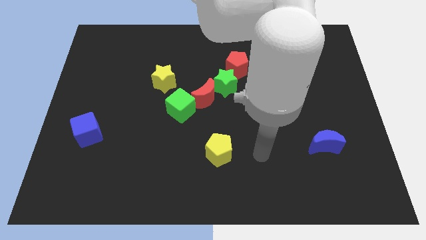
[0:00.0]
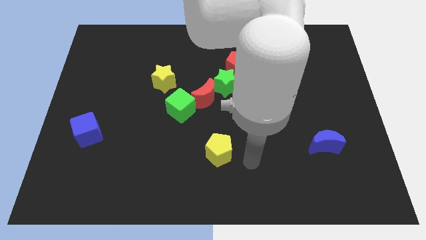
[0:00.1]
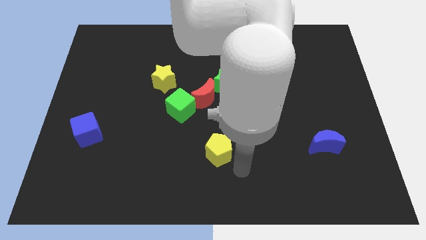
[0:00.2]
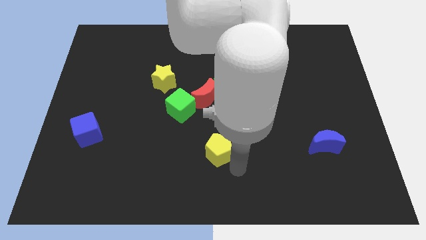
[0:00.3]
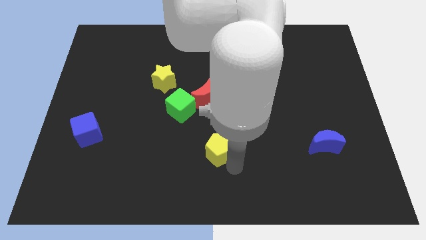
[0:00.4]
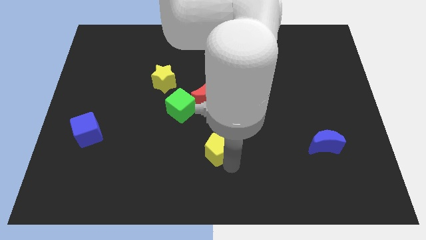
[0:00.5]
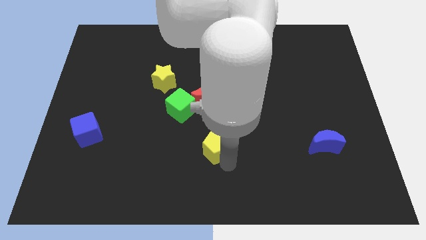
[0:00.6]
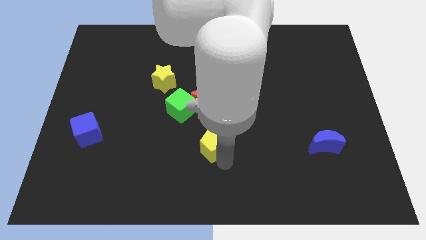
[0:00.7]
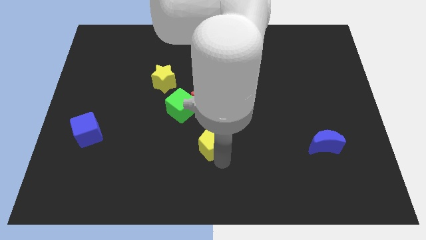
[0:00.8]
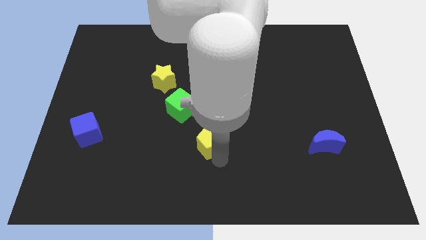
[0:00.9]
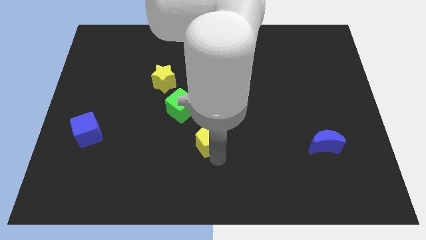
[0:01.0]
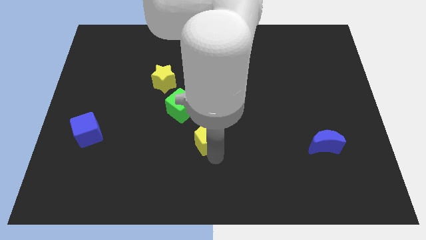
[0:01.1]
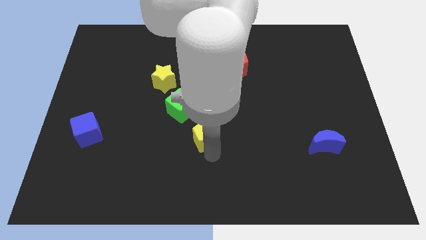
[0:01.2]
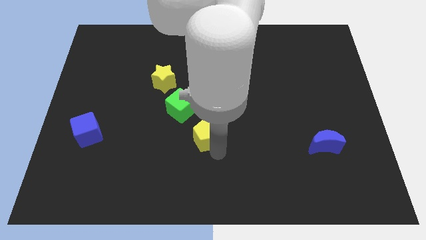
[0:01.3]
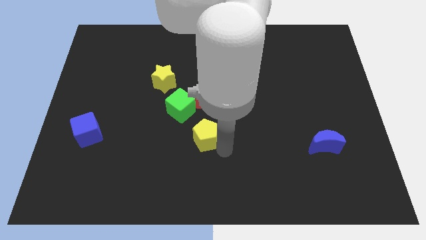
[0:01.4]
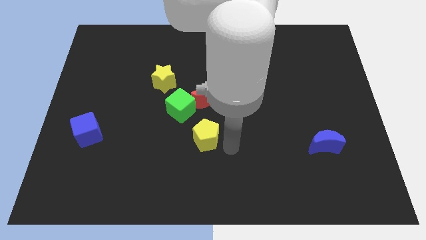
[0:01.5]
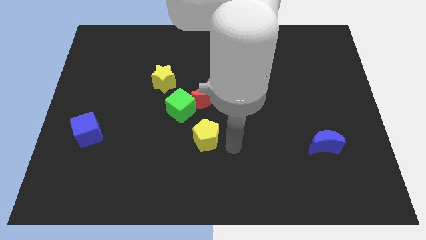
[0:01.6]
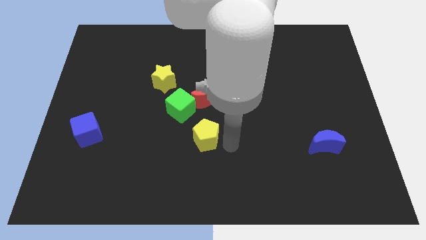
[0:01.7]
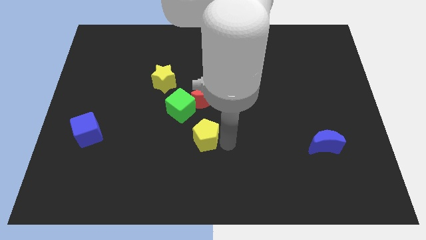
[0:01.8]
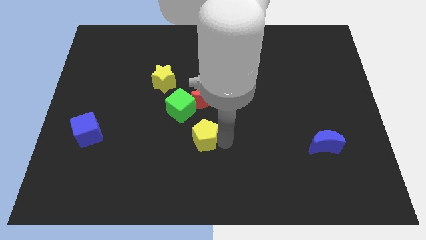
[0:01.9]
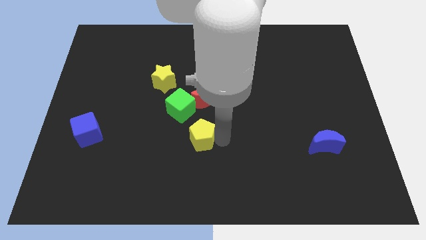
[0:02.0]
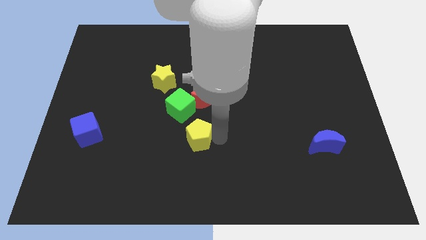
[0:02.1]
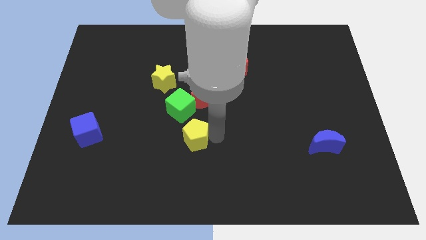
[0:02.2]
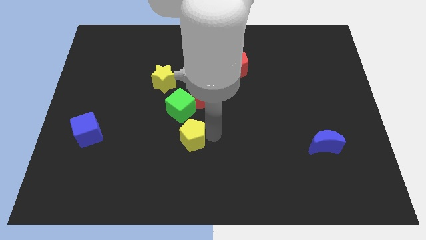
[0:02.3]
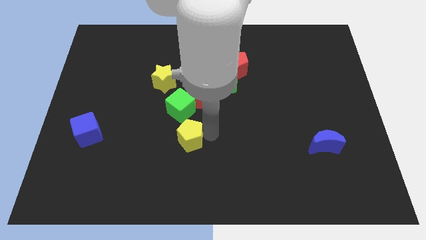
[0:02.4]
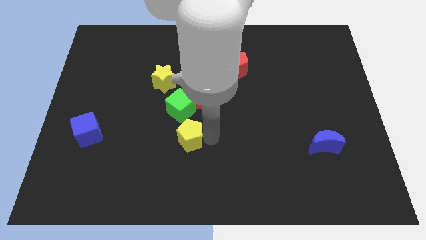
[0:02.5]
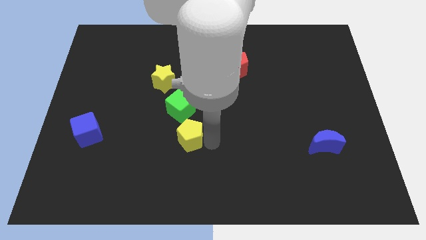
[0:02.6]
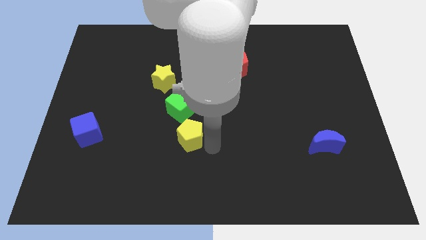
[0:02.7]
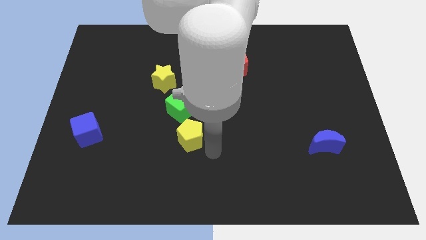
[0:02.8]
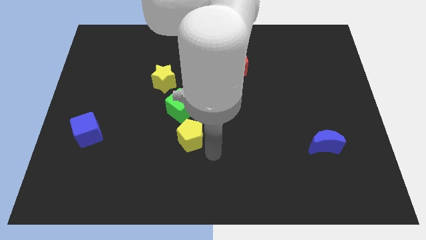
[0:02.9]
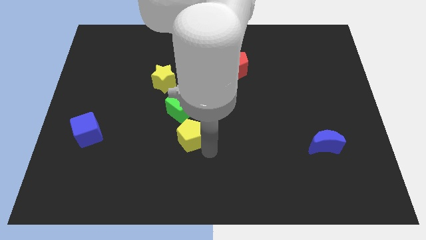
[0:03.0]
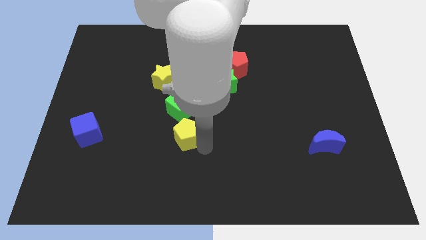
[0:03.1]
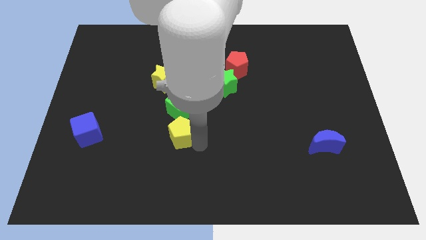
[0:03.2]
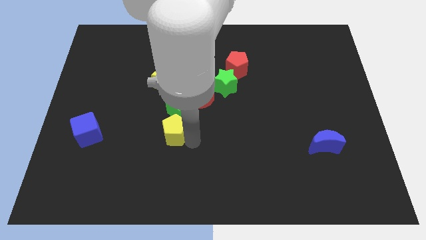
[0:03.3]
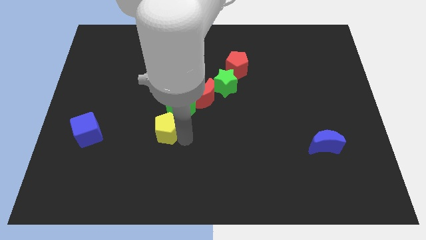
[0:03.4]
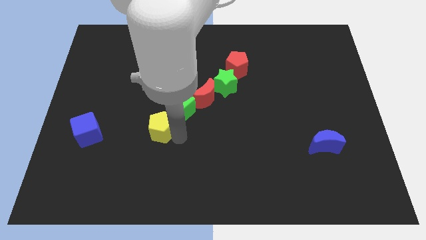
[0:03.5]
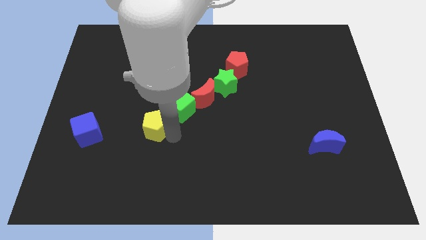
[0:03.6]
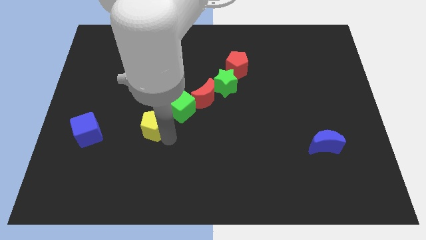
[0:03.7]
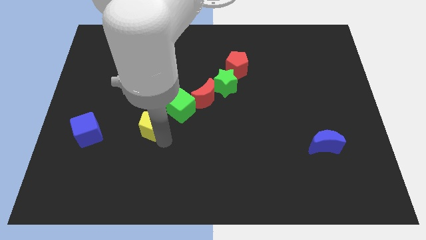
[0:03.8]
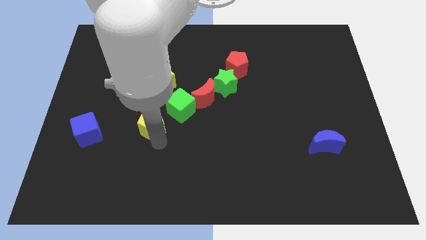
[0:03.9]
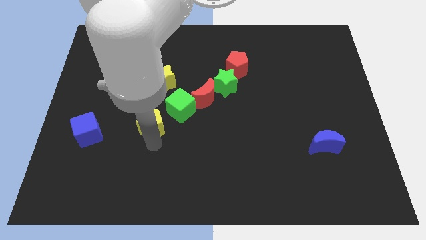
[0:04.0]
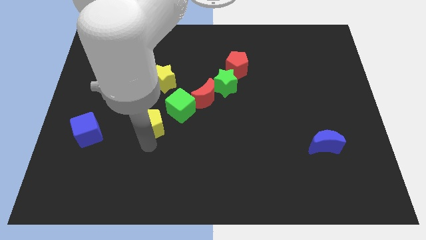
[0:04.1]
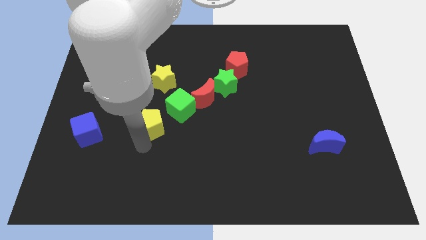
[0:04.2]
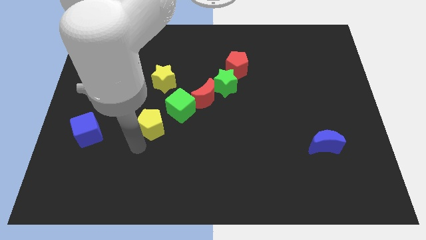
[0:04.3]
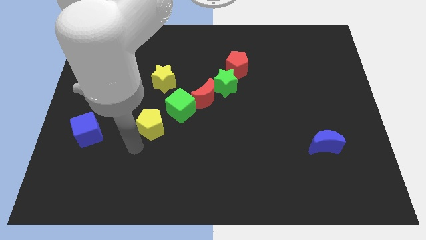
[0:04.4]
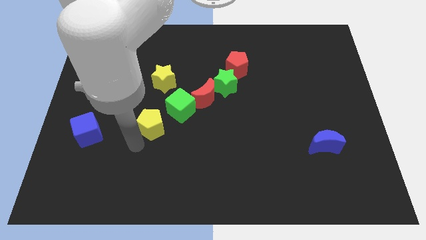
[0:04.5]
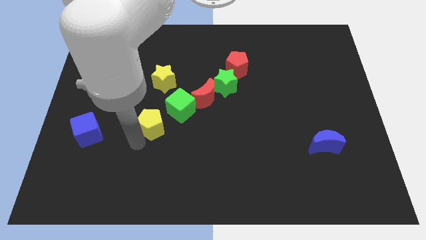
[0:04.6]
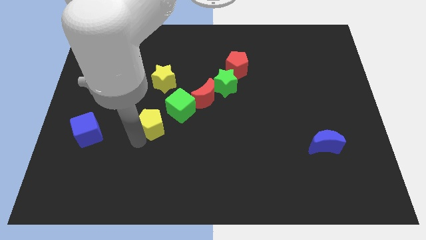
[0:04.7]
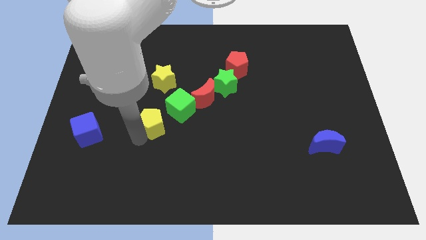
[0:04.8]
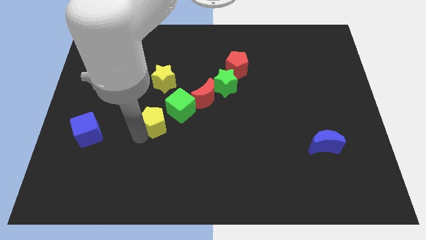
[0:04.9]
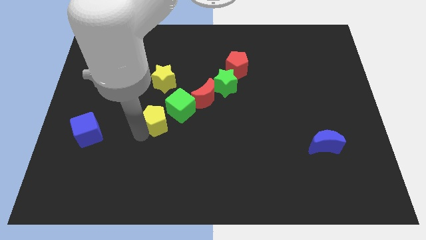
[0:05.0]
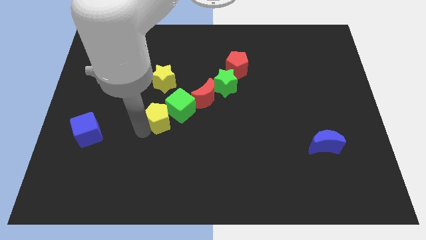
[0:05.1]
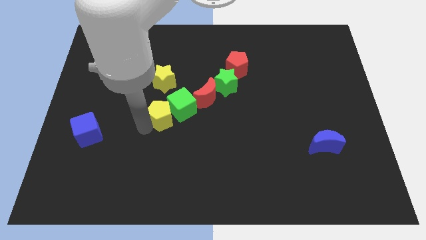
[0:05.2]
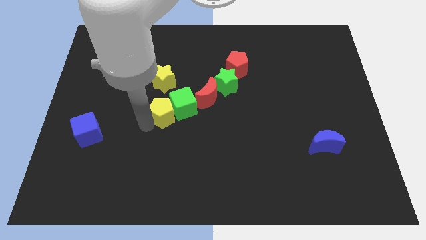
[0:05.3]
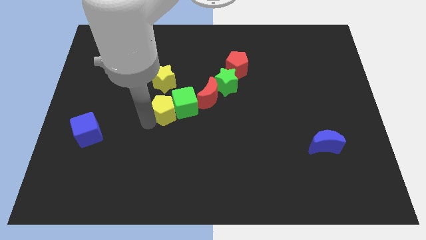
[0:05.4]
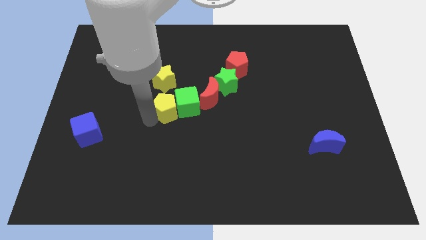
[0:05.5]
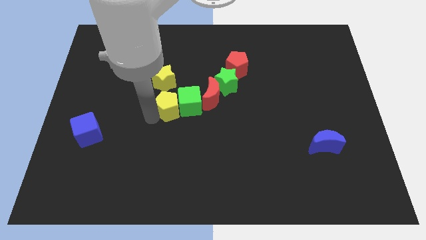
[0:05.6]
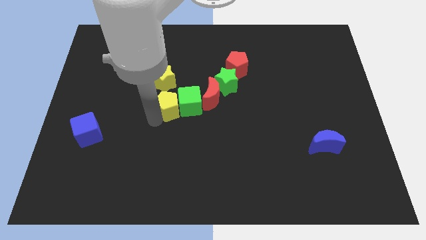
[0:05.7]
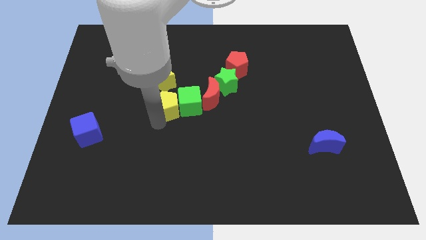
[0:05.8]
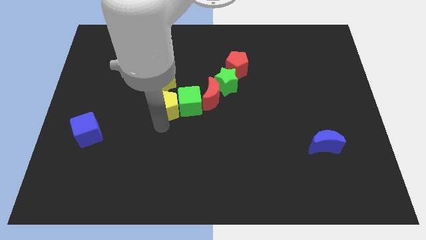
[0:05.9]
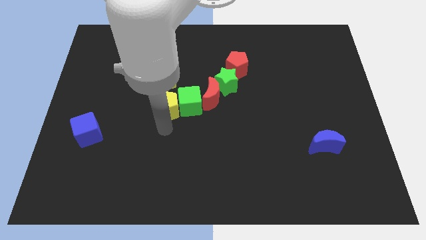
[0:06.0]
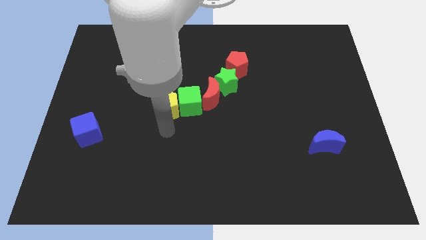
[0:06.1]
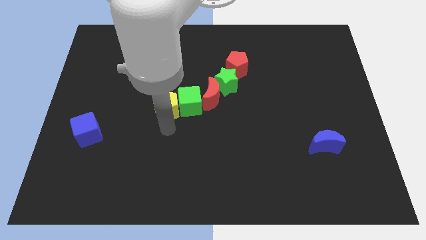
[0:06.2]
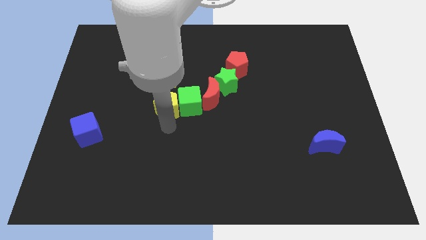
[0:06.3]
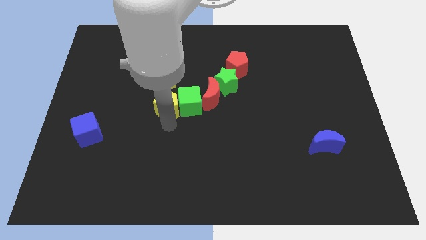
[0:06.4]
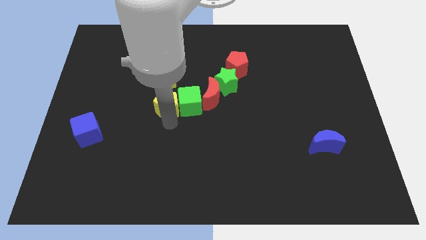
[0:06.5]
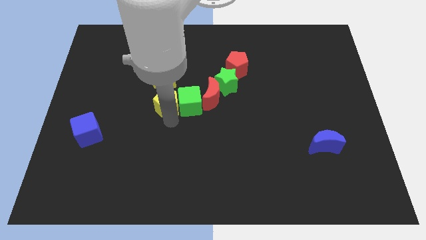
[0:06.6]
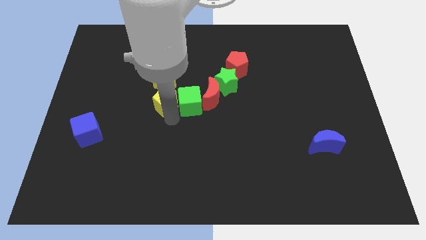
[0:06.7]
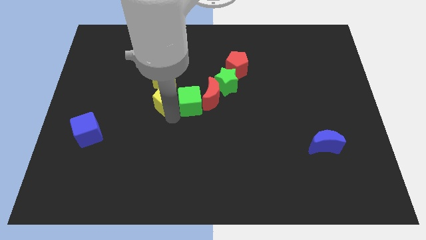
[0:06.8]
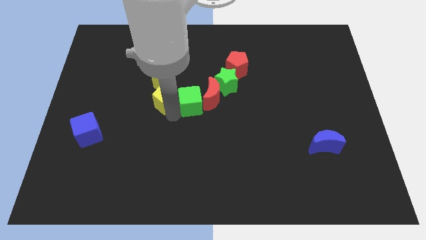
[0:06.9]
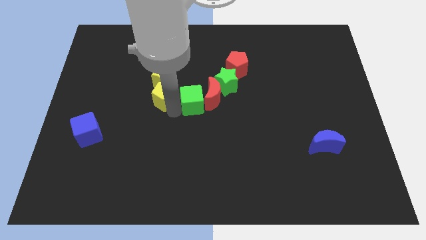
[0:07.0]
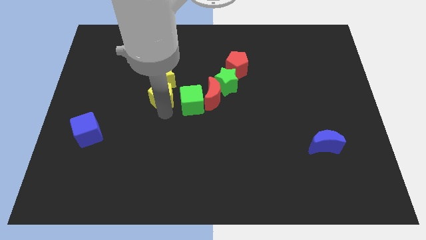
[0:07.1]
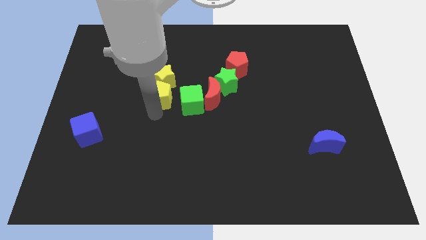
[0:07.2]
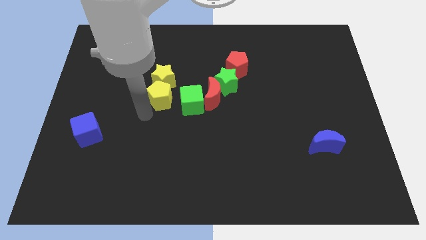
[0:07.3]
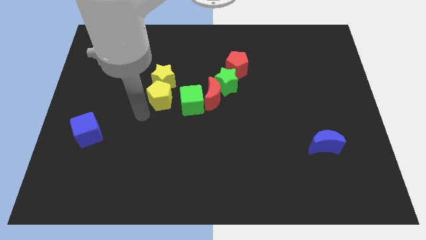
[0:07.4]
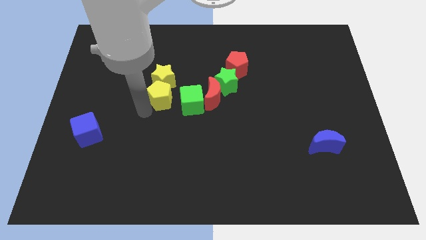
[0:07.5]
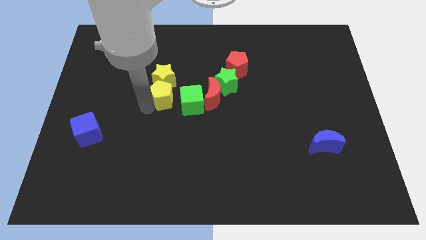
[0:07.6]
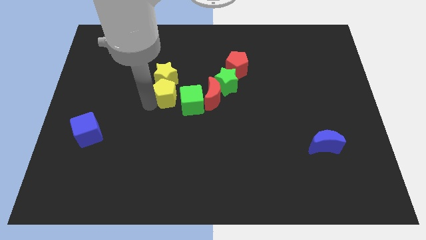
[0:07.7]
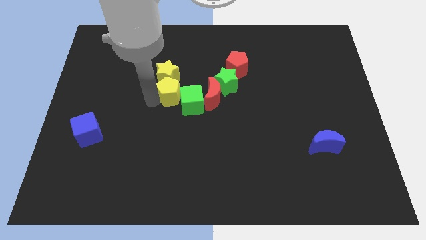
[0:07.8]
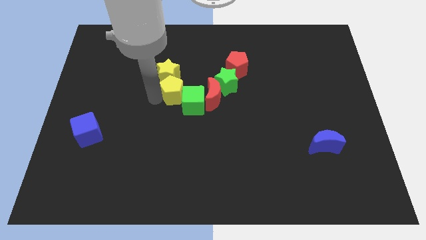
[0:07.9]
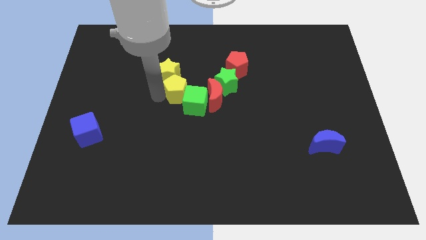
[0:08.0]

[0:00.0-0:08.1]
put the yellow pentagon above the green cube

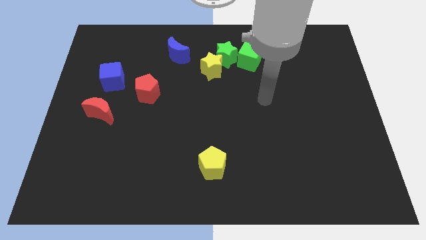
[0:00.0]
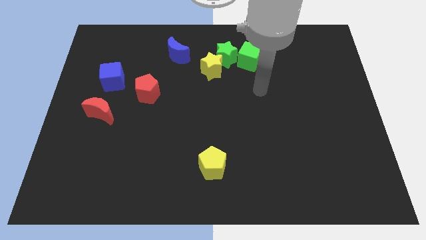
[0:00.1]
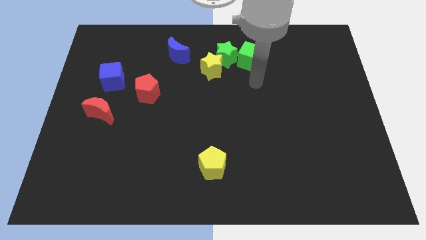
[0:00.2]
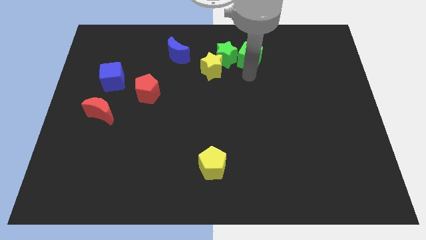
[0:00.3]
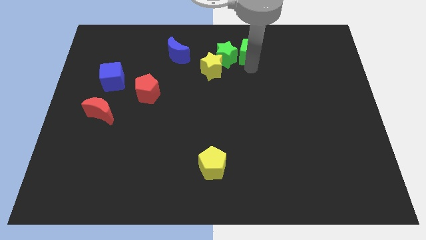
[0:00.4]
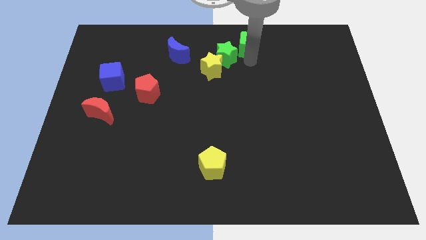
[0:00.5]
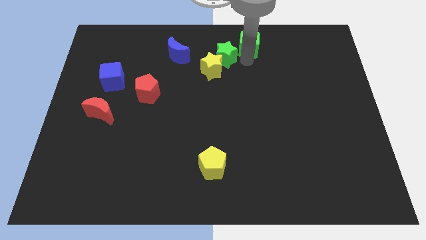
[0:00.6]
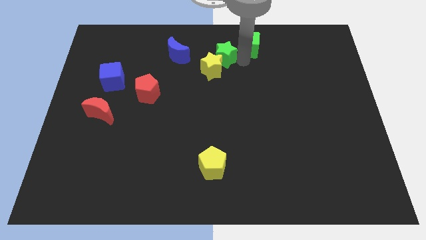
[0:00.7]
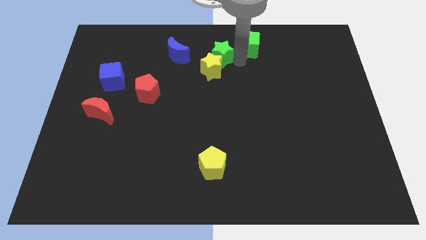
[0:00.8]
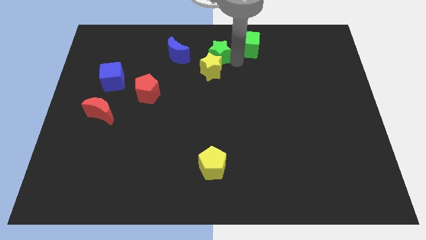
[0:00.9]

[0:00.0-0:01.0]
push the green star diagonally up and to the left of the yellow star
